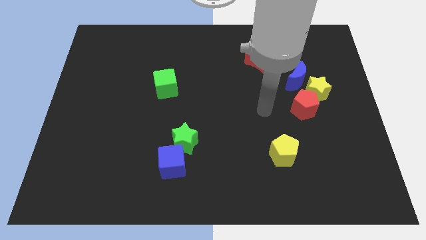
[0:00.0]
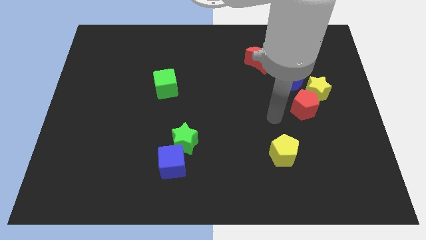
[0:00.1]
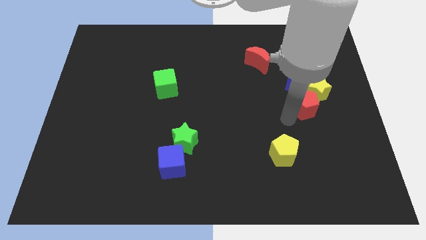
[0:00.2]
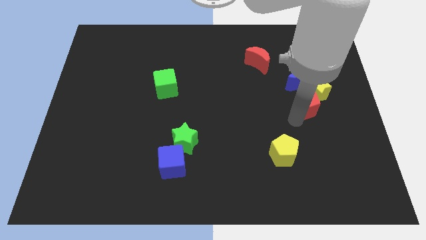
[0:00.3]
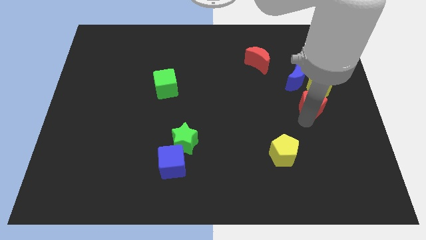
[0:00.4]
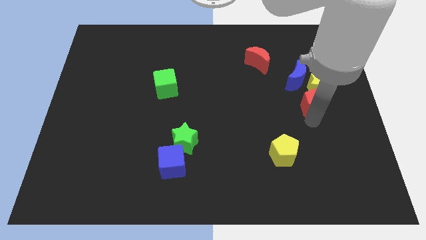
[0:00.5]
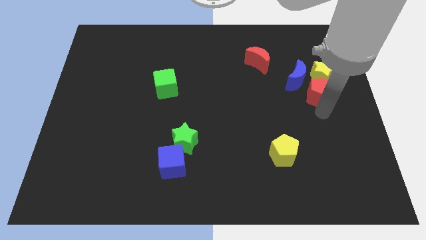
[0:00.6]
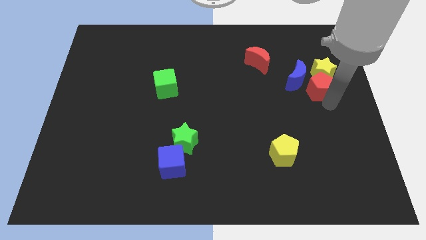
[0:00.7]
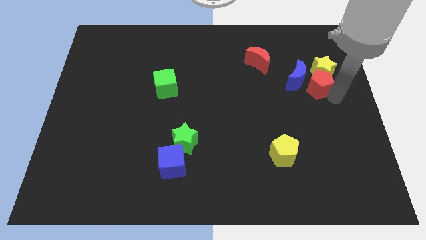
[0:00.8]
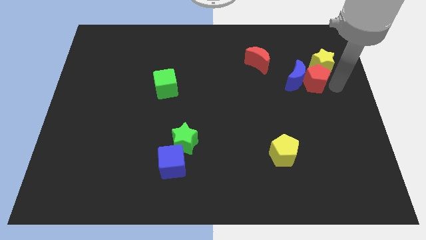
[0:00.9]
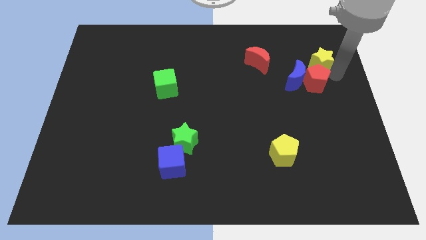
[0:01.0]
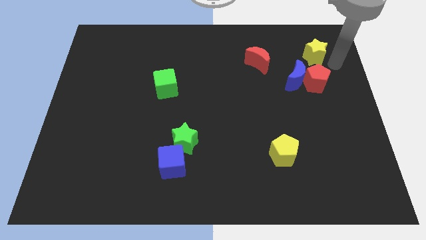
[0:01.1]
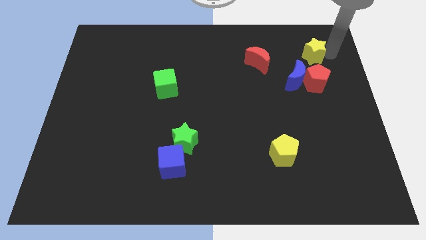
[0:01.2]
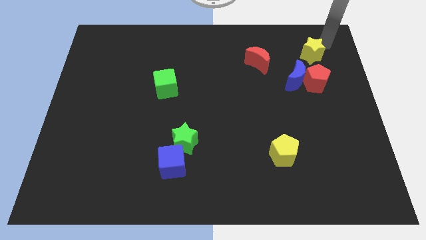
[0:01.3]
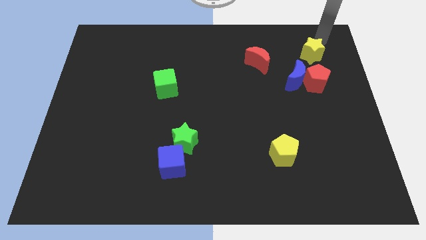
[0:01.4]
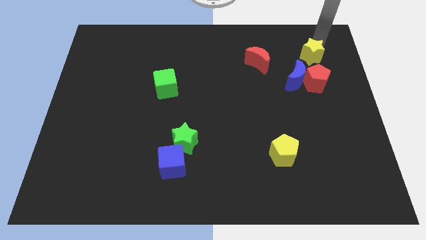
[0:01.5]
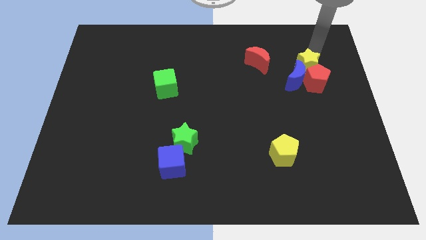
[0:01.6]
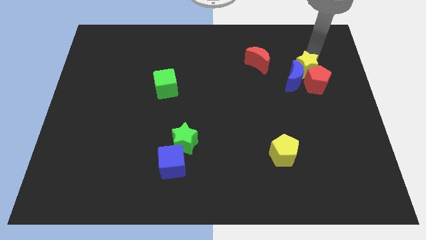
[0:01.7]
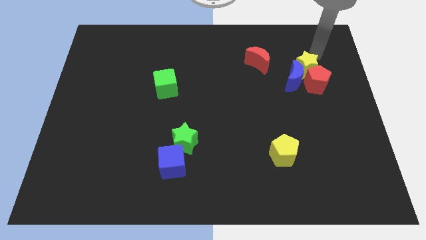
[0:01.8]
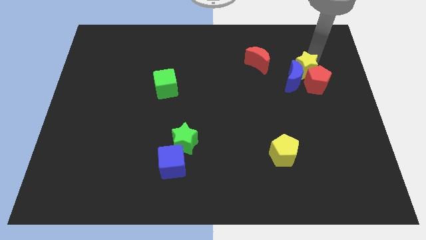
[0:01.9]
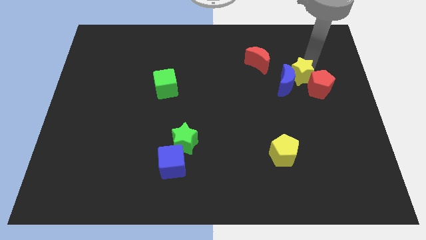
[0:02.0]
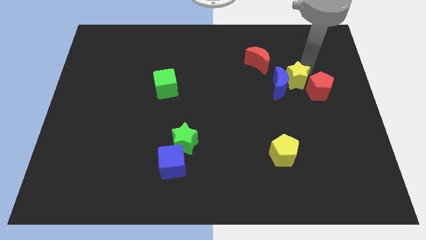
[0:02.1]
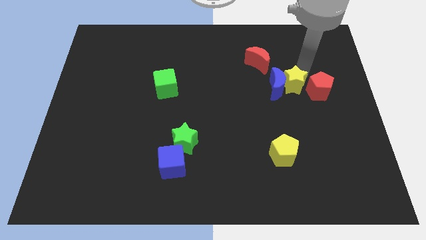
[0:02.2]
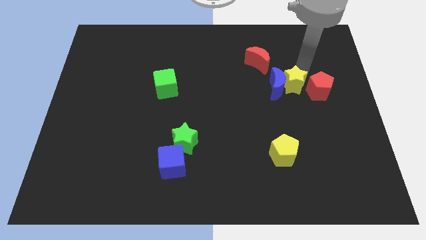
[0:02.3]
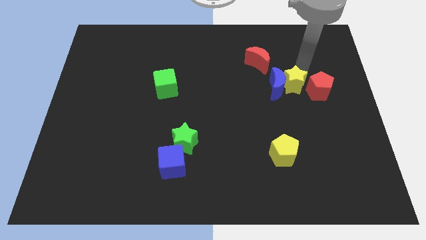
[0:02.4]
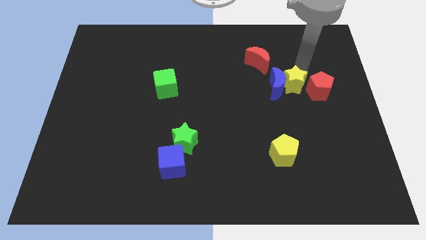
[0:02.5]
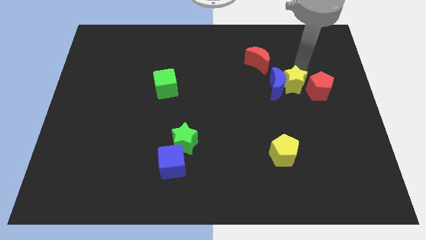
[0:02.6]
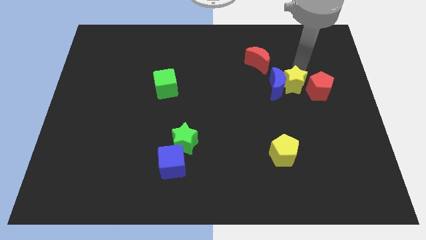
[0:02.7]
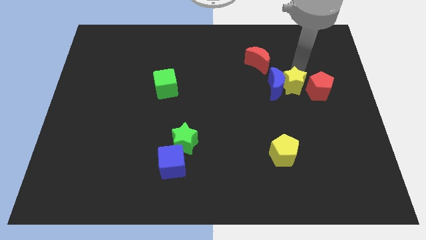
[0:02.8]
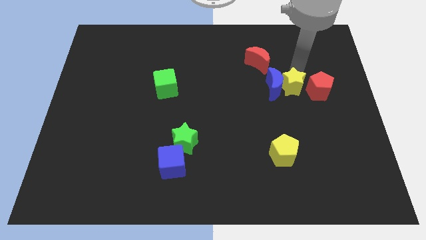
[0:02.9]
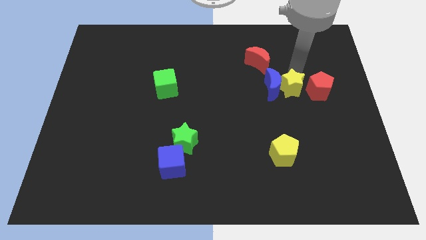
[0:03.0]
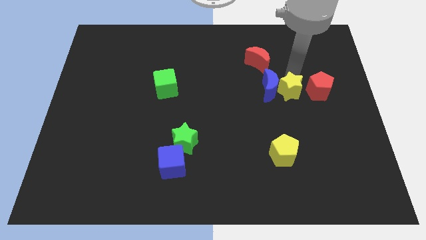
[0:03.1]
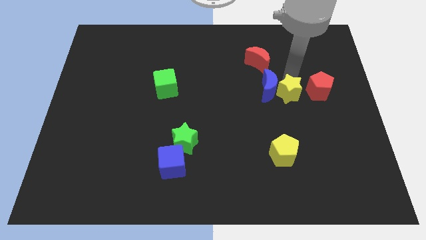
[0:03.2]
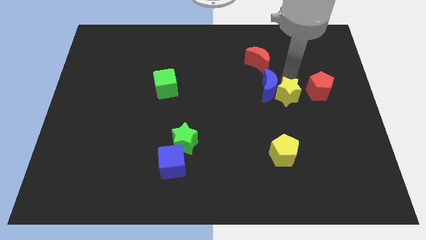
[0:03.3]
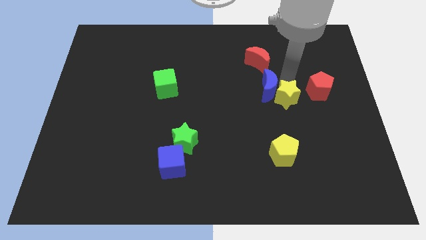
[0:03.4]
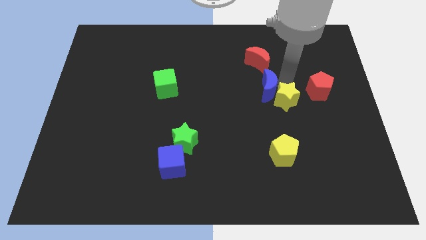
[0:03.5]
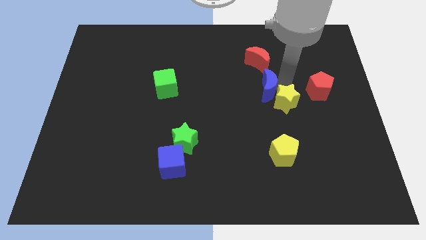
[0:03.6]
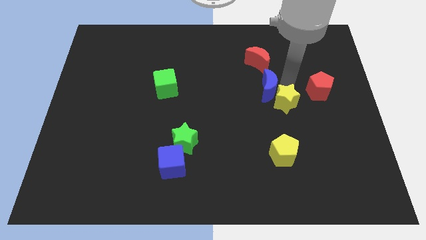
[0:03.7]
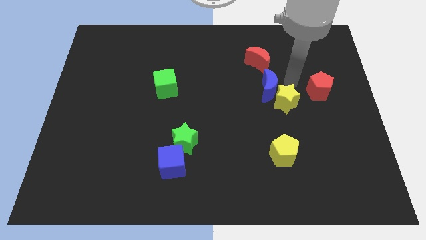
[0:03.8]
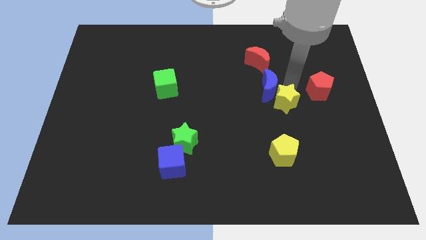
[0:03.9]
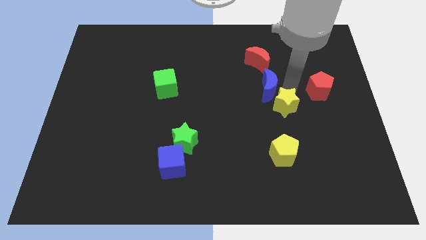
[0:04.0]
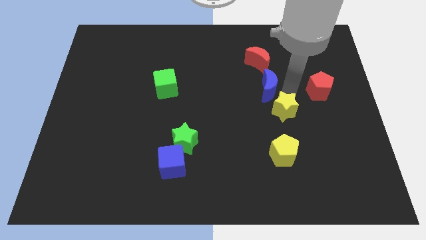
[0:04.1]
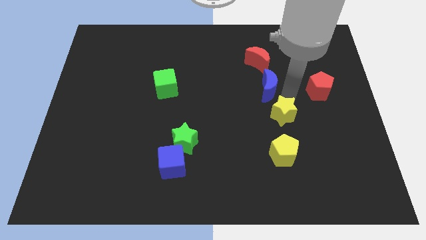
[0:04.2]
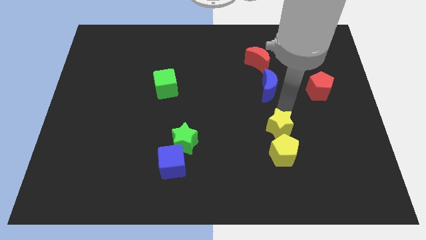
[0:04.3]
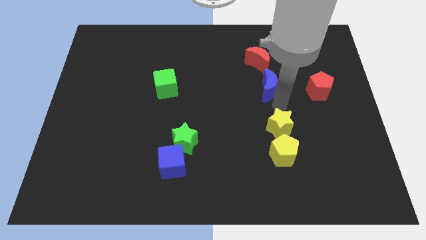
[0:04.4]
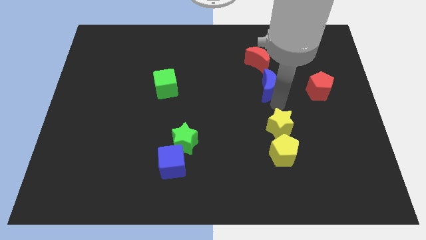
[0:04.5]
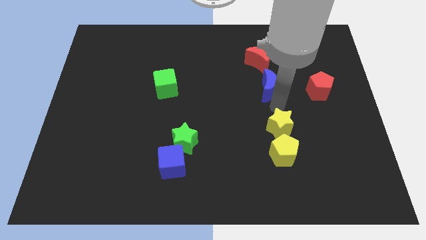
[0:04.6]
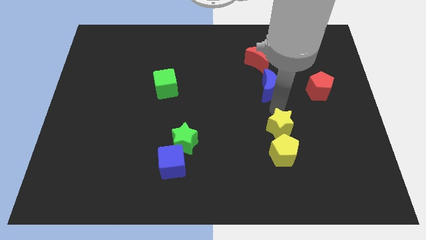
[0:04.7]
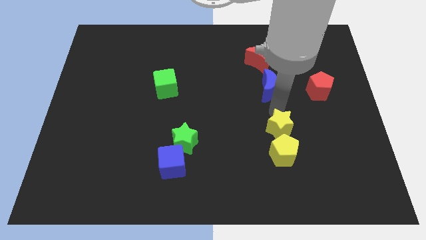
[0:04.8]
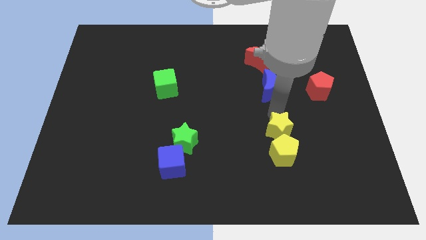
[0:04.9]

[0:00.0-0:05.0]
move the yellow star to the yellow pentagon

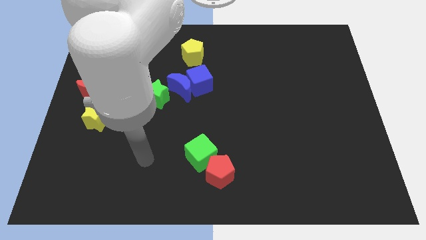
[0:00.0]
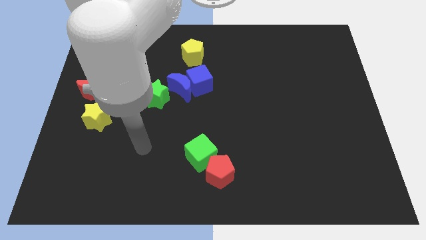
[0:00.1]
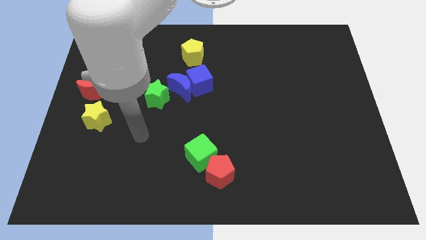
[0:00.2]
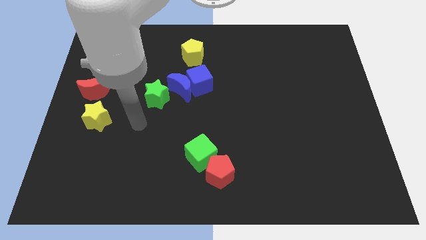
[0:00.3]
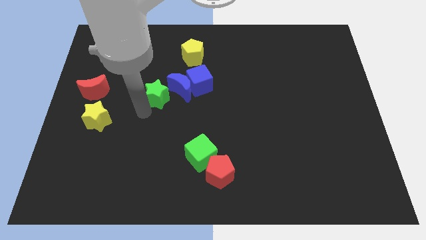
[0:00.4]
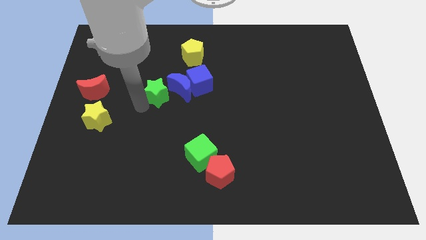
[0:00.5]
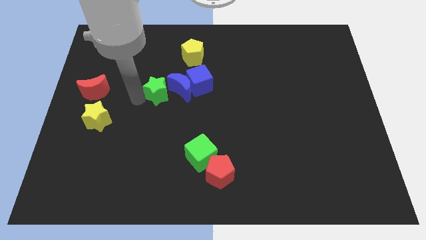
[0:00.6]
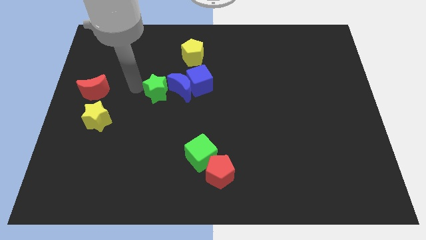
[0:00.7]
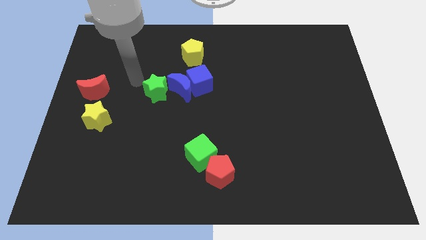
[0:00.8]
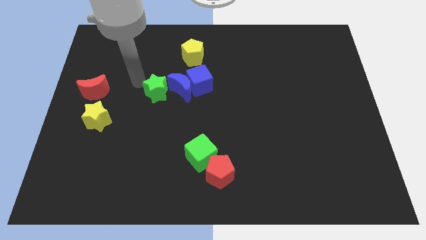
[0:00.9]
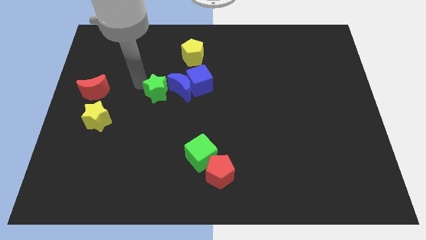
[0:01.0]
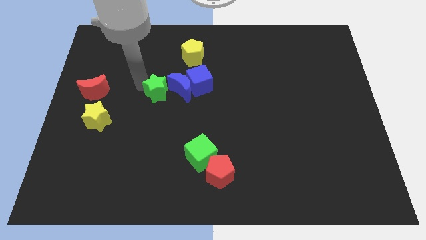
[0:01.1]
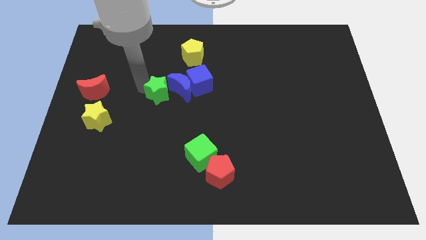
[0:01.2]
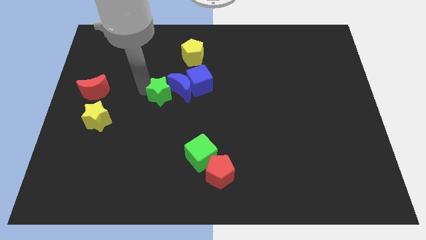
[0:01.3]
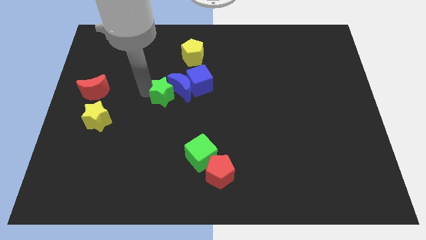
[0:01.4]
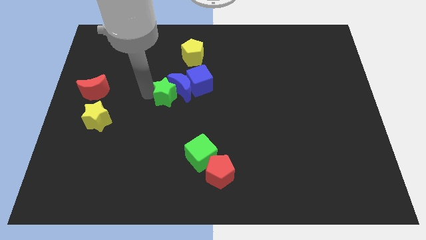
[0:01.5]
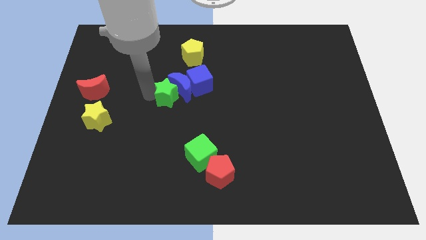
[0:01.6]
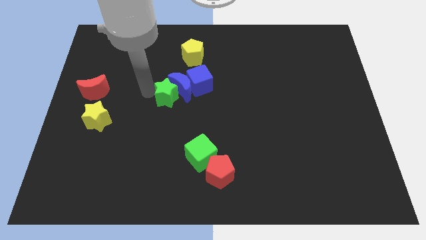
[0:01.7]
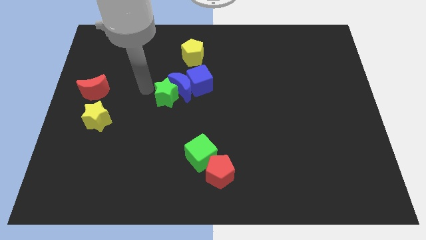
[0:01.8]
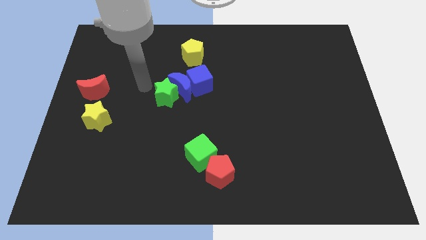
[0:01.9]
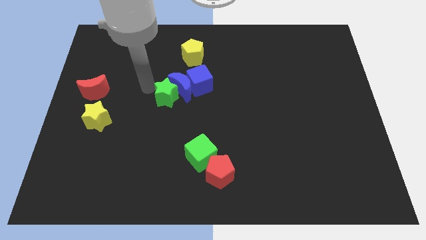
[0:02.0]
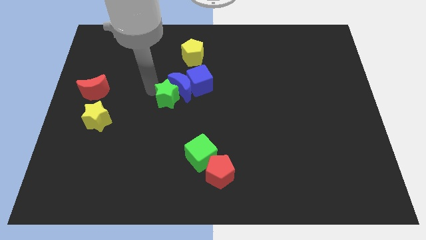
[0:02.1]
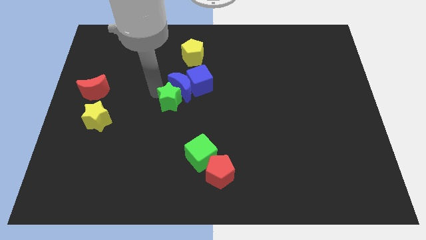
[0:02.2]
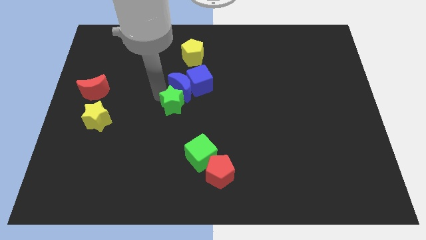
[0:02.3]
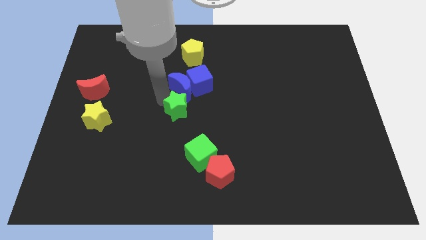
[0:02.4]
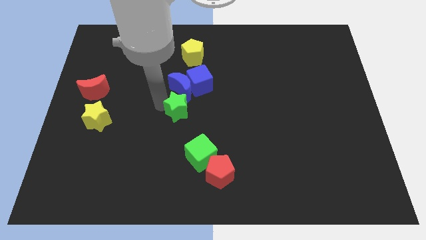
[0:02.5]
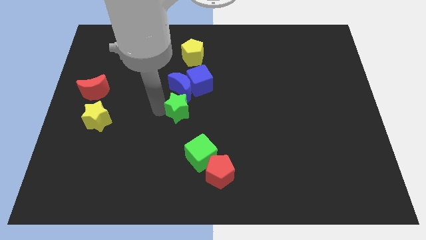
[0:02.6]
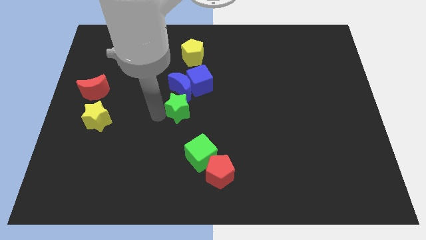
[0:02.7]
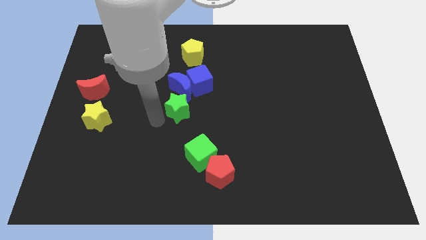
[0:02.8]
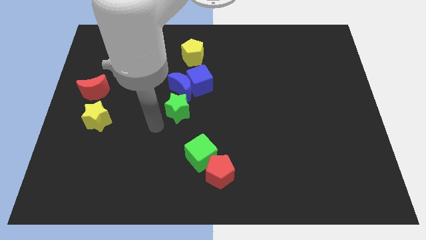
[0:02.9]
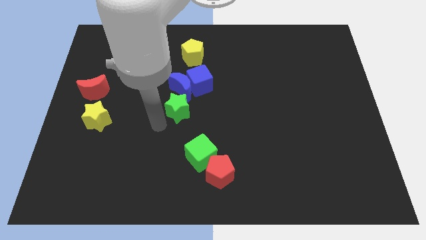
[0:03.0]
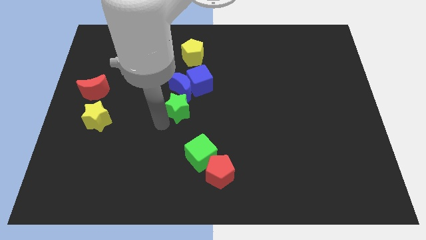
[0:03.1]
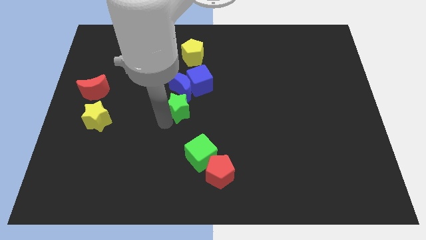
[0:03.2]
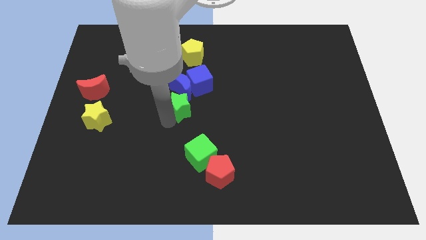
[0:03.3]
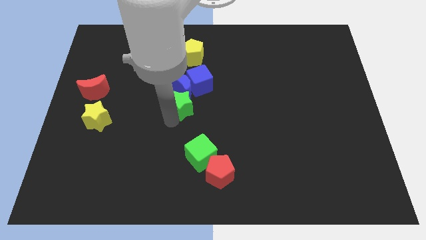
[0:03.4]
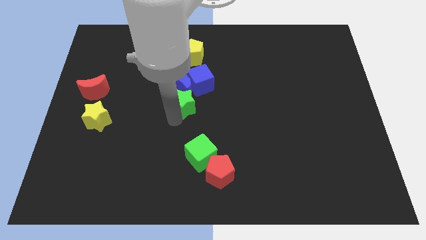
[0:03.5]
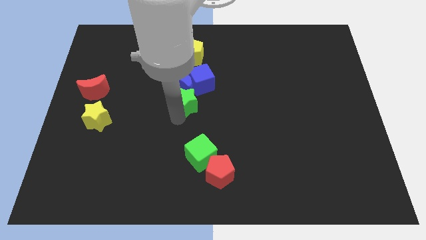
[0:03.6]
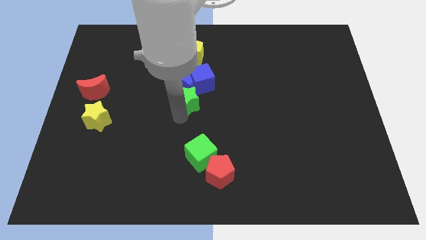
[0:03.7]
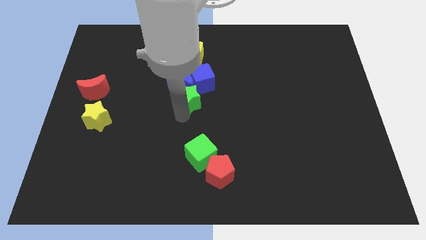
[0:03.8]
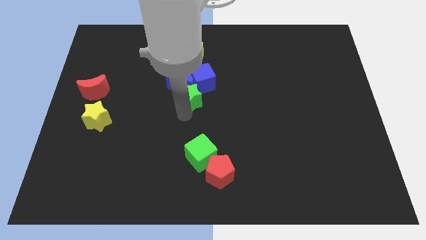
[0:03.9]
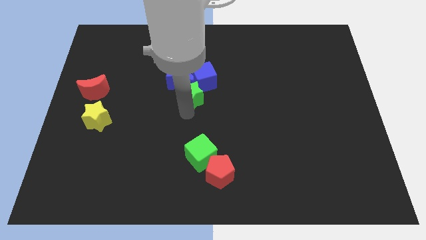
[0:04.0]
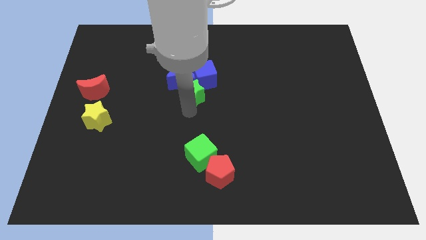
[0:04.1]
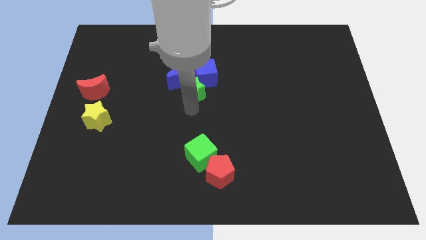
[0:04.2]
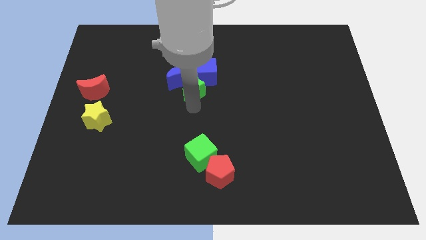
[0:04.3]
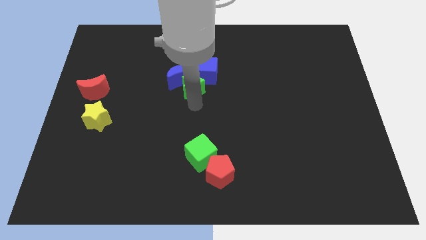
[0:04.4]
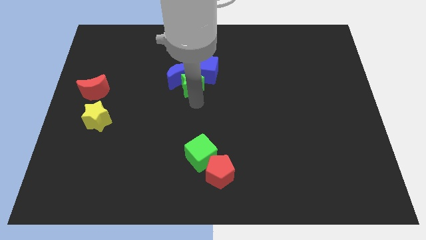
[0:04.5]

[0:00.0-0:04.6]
move the green star towards the blue cube
